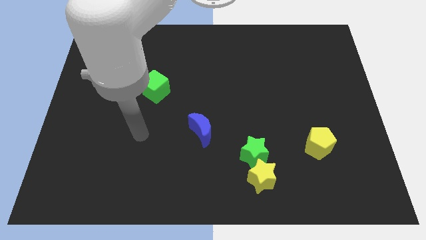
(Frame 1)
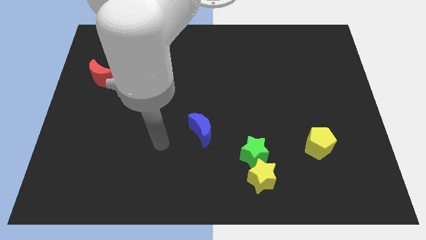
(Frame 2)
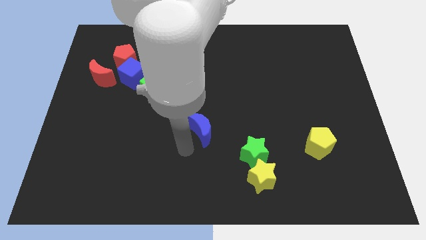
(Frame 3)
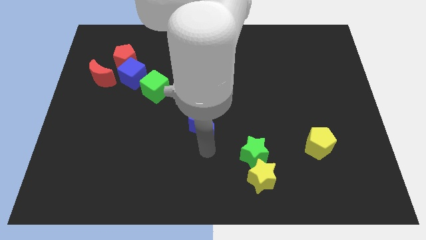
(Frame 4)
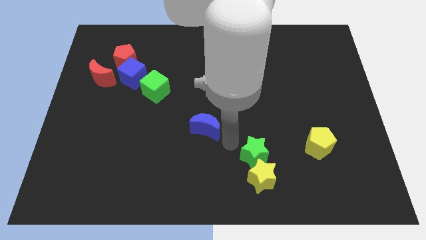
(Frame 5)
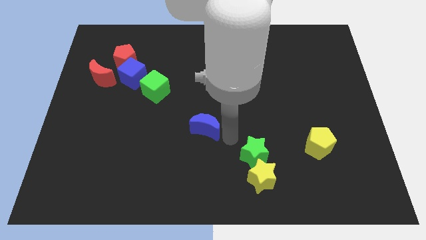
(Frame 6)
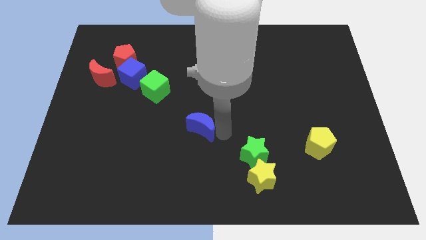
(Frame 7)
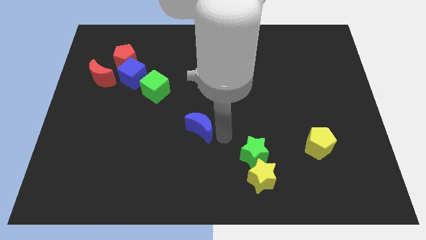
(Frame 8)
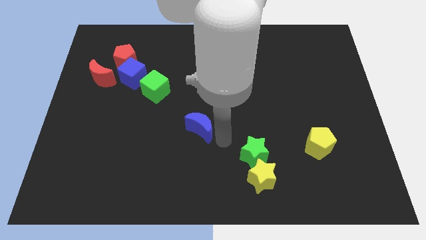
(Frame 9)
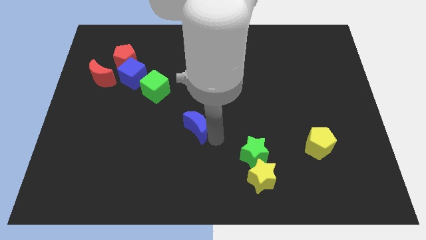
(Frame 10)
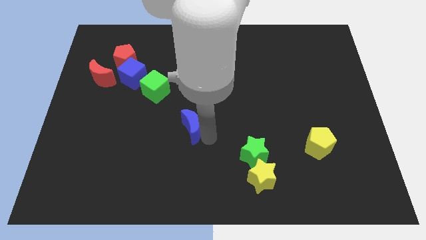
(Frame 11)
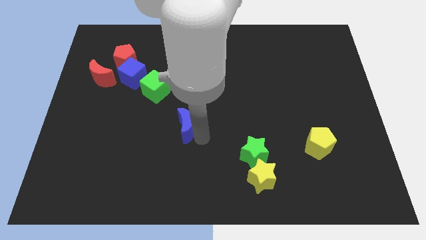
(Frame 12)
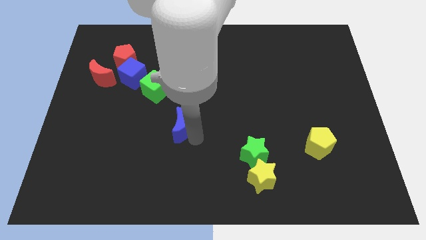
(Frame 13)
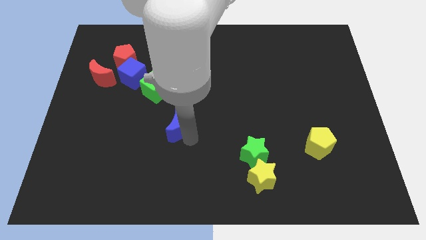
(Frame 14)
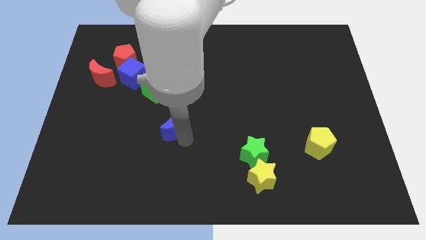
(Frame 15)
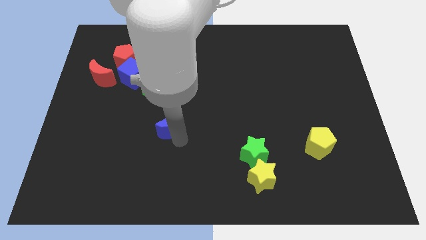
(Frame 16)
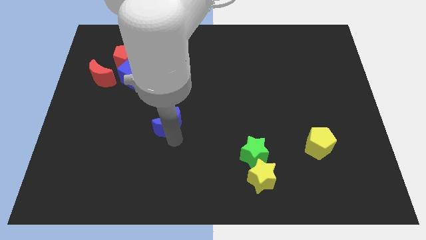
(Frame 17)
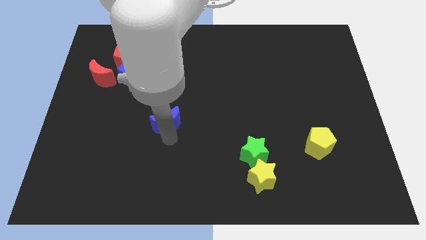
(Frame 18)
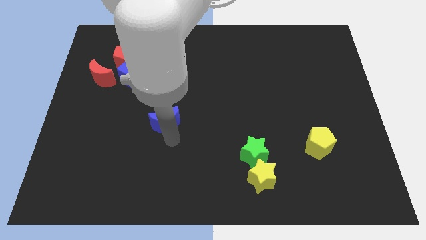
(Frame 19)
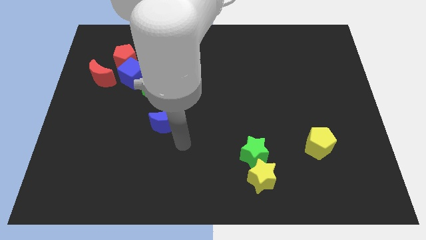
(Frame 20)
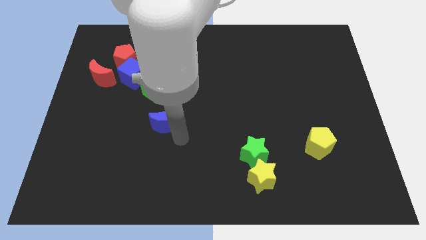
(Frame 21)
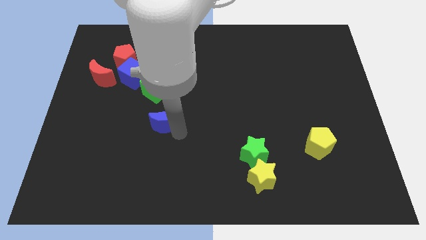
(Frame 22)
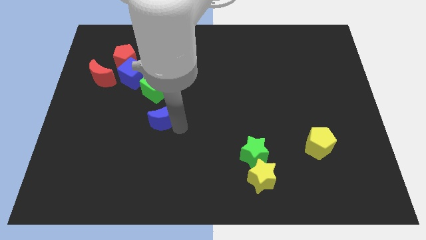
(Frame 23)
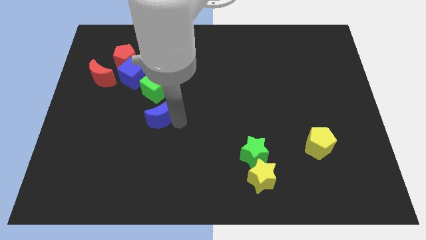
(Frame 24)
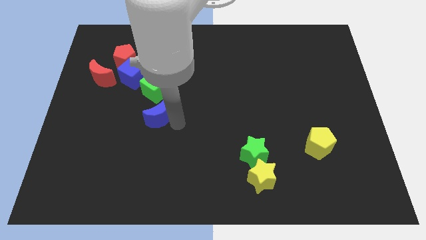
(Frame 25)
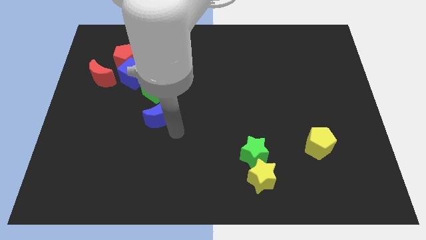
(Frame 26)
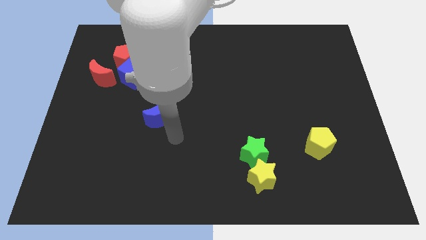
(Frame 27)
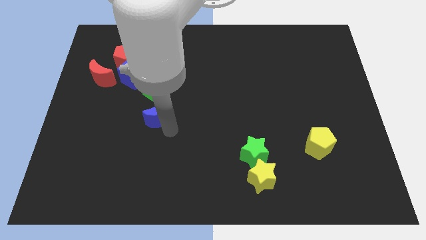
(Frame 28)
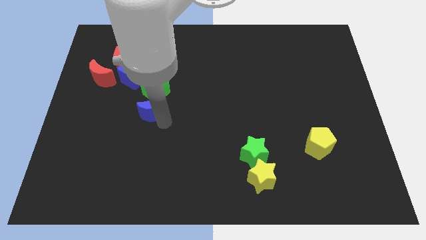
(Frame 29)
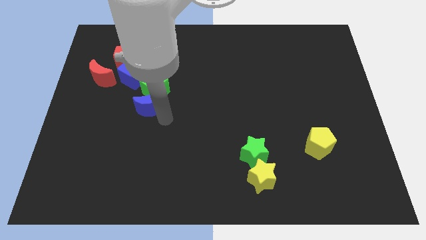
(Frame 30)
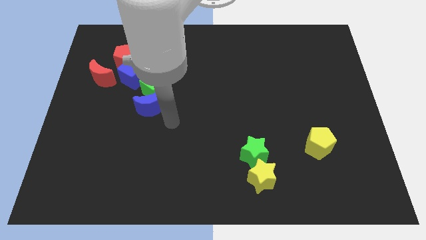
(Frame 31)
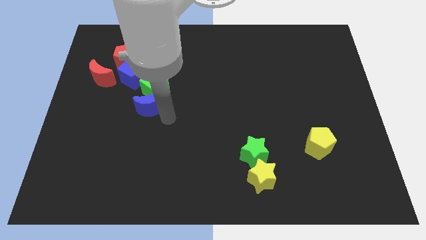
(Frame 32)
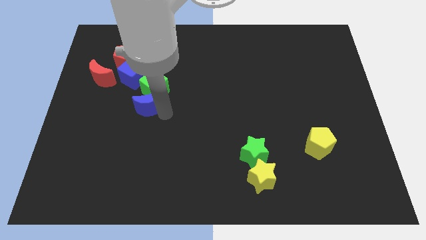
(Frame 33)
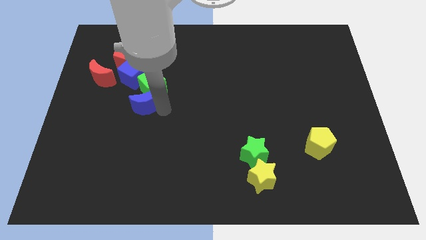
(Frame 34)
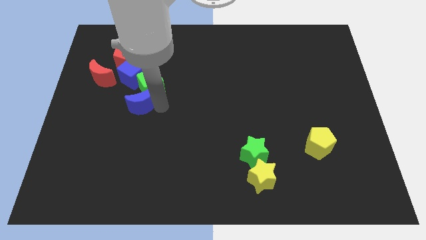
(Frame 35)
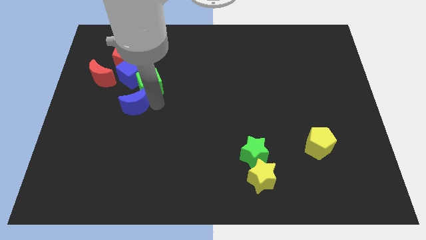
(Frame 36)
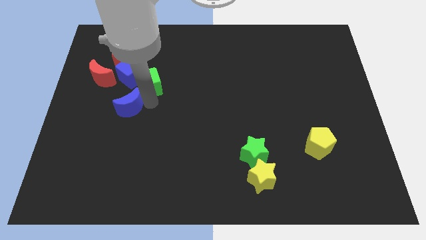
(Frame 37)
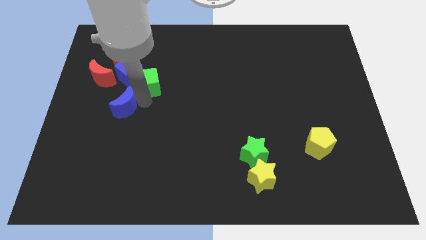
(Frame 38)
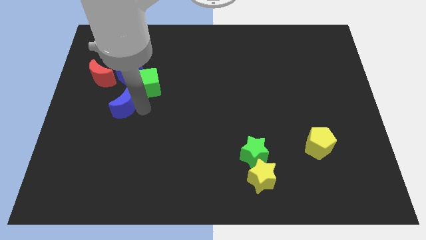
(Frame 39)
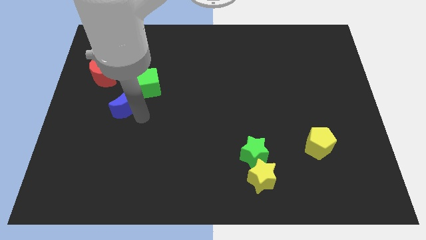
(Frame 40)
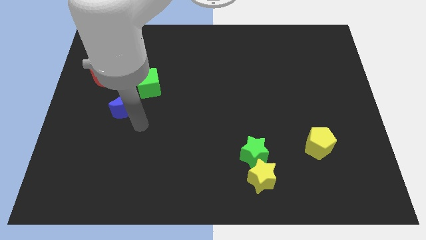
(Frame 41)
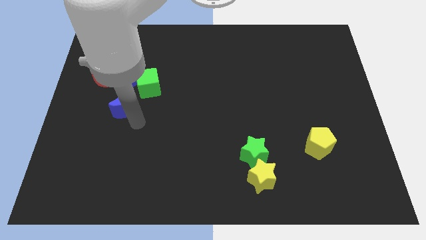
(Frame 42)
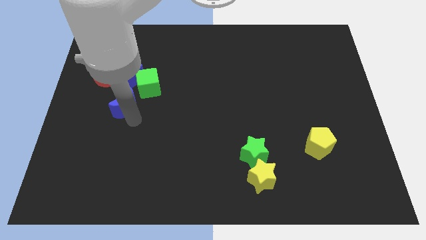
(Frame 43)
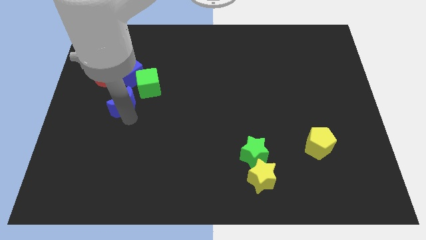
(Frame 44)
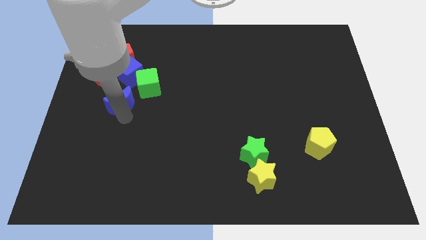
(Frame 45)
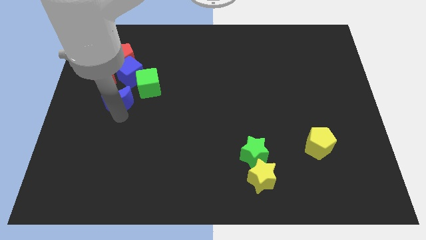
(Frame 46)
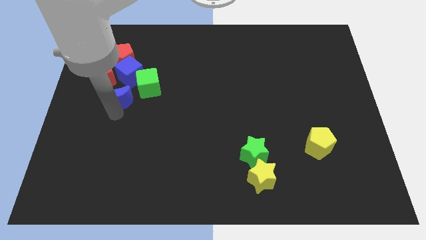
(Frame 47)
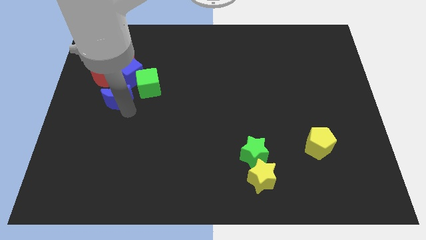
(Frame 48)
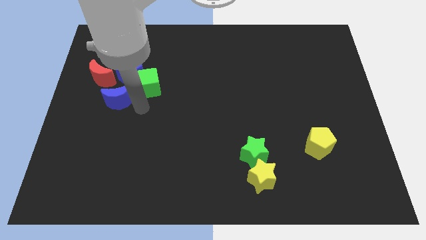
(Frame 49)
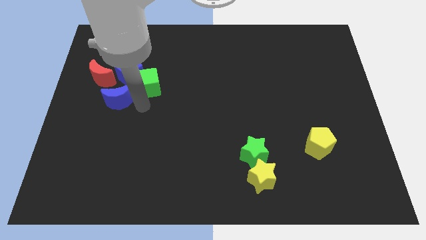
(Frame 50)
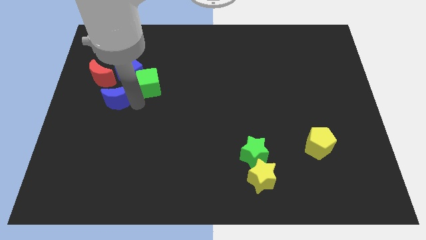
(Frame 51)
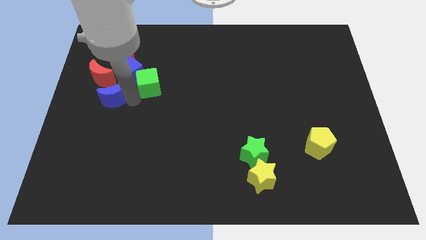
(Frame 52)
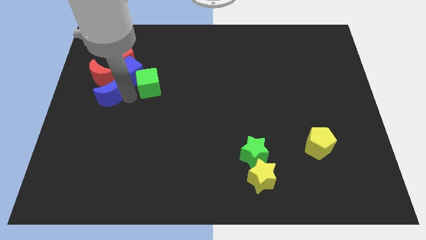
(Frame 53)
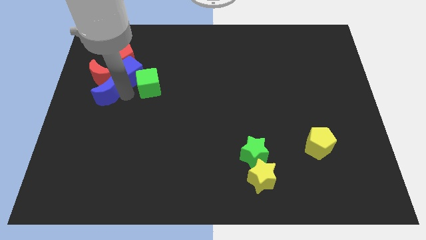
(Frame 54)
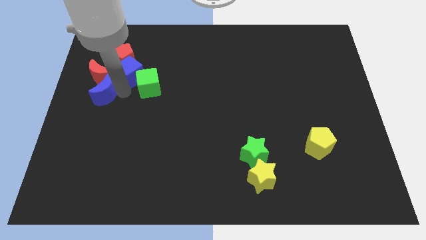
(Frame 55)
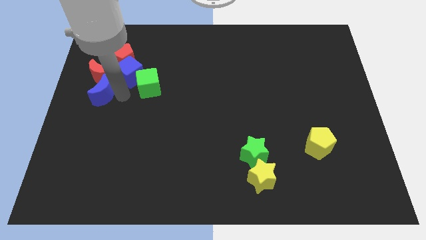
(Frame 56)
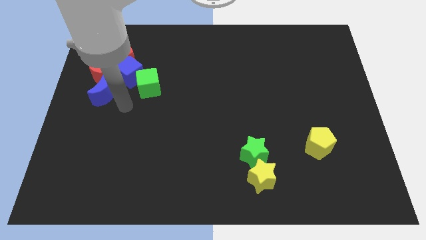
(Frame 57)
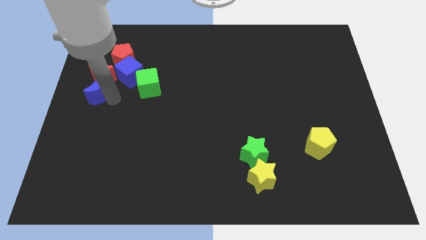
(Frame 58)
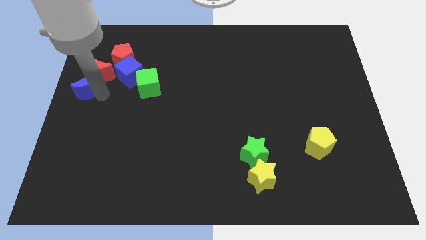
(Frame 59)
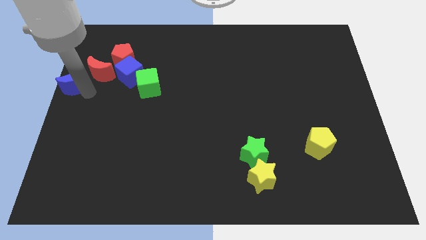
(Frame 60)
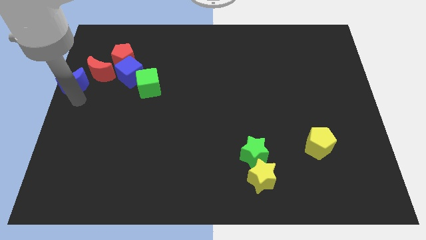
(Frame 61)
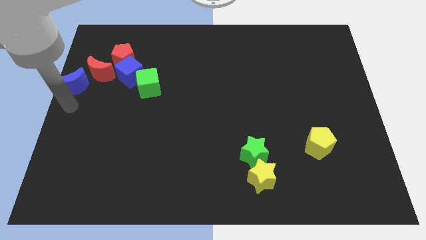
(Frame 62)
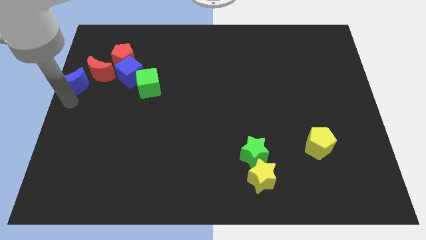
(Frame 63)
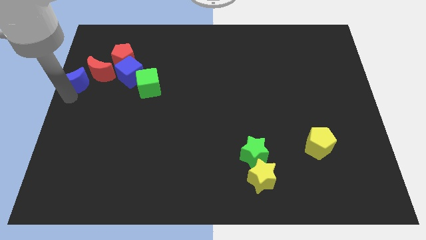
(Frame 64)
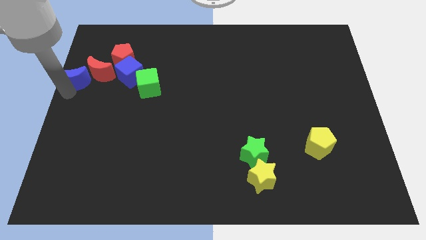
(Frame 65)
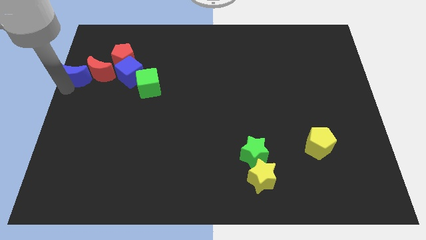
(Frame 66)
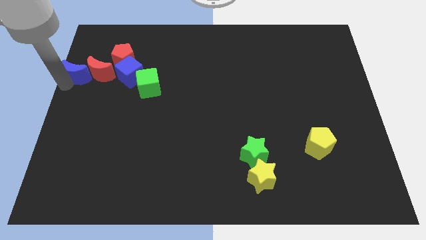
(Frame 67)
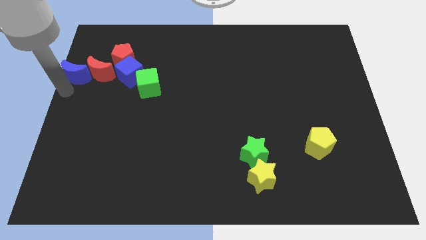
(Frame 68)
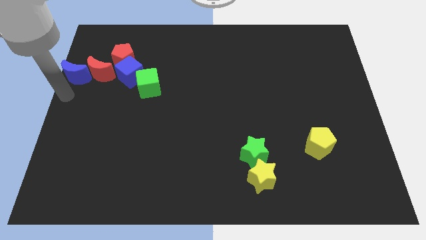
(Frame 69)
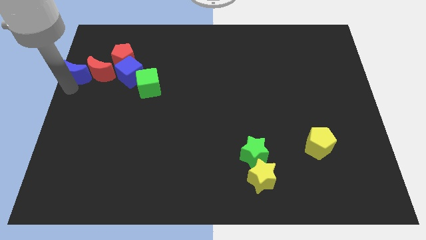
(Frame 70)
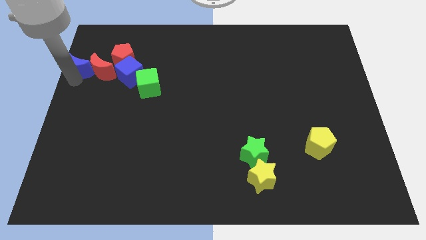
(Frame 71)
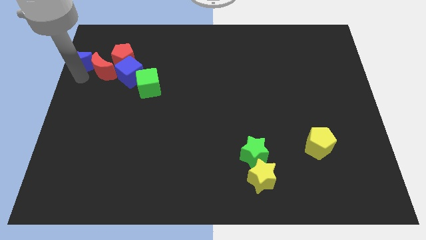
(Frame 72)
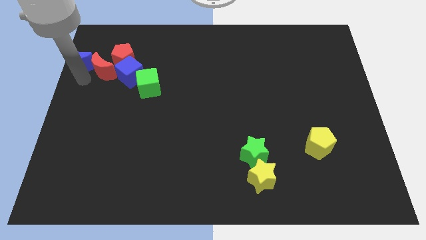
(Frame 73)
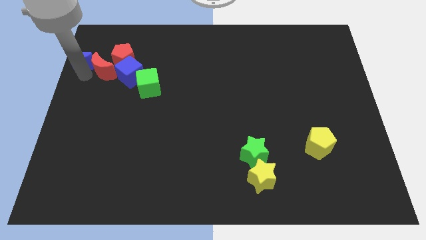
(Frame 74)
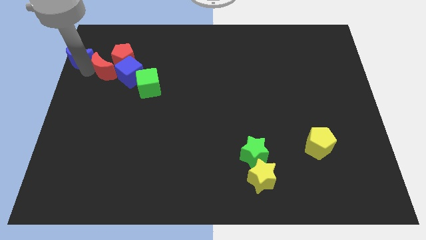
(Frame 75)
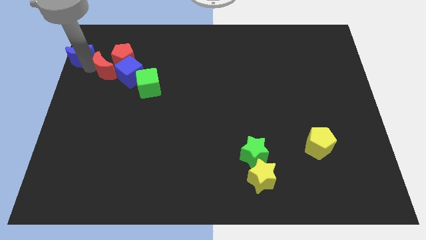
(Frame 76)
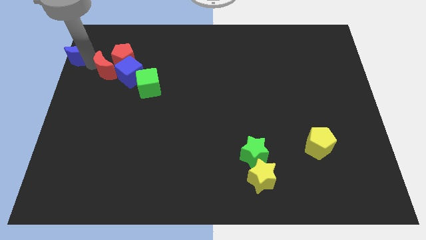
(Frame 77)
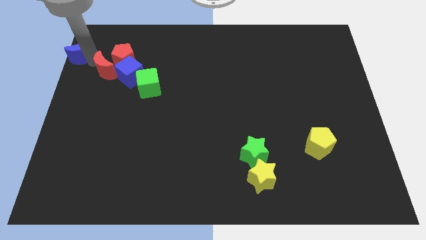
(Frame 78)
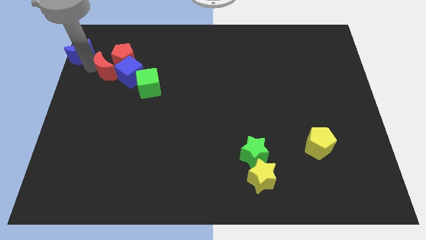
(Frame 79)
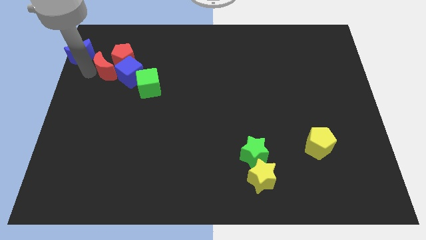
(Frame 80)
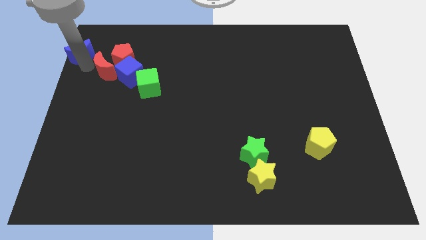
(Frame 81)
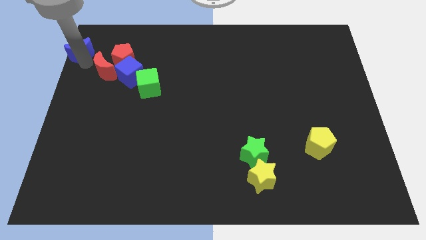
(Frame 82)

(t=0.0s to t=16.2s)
put the blue moon to the upper left corner
